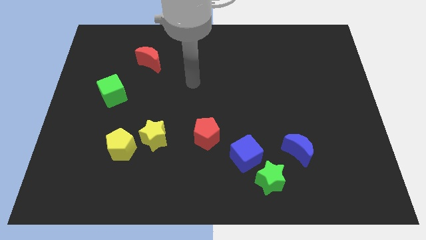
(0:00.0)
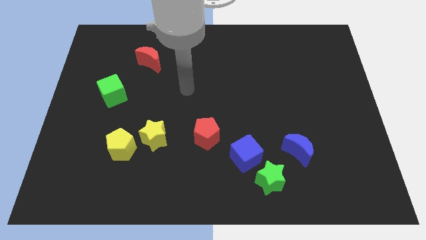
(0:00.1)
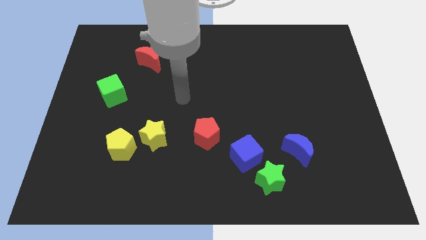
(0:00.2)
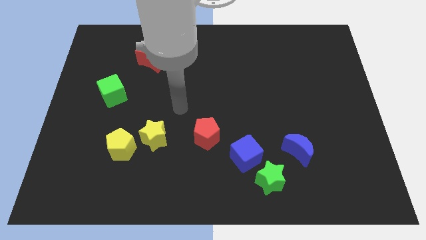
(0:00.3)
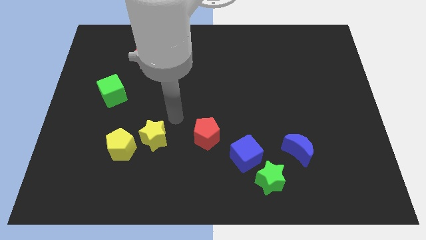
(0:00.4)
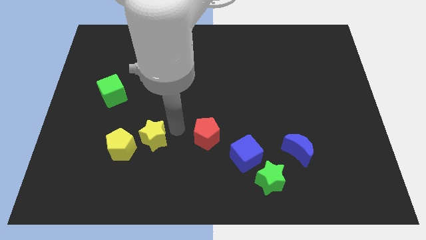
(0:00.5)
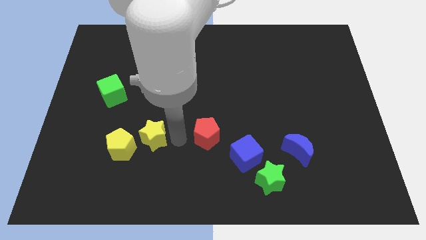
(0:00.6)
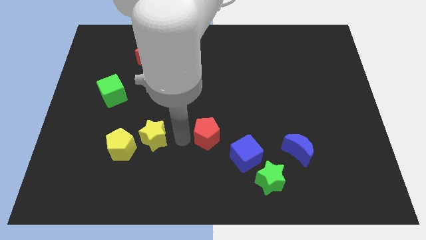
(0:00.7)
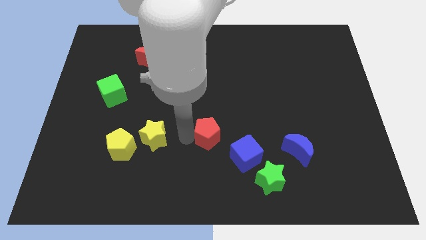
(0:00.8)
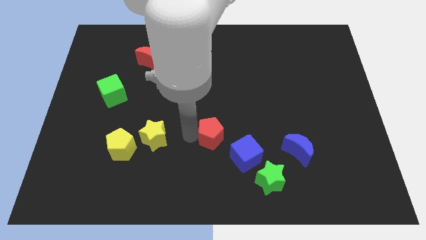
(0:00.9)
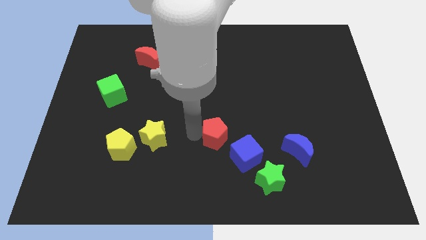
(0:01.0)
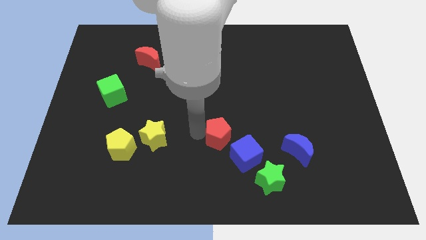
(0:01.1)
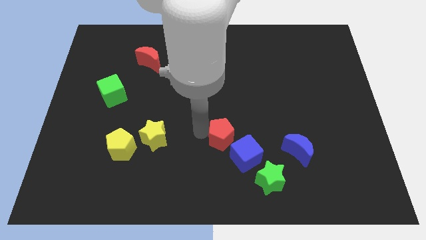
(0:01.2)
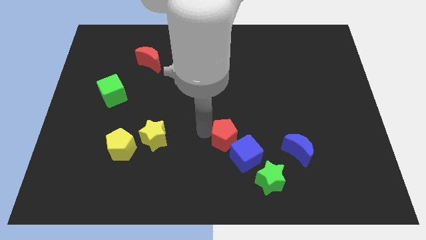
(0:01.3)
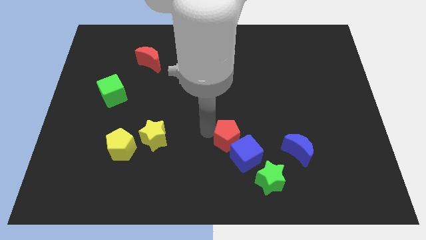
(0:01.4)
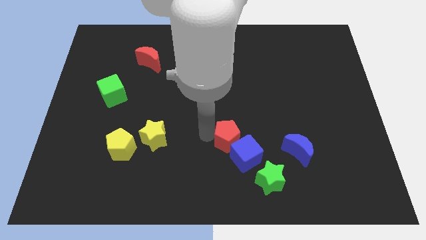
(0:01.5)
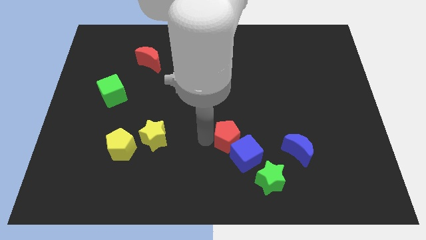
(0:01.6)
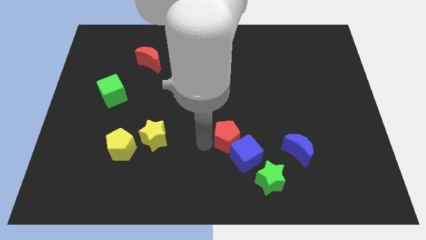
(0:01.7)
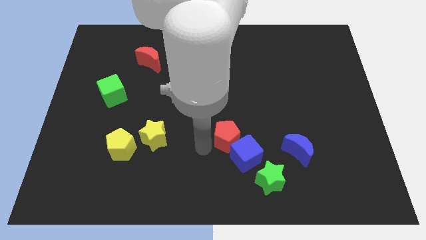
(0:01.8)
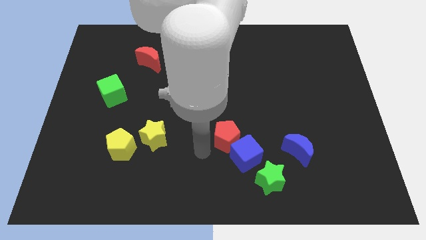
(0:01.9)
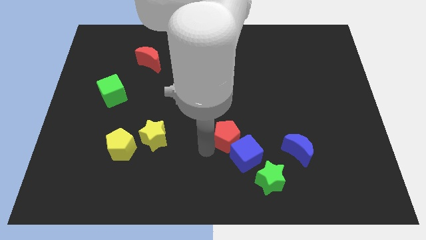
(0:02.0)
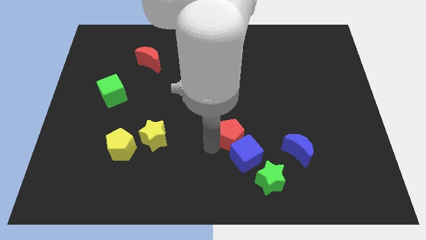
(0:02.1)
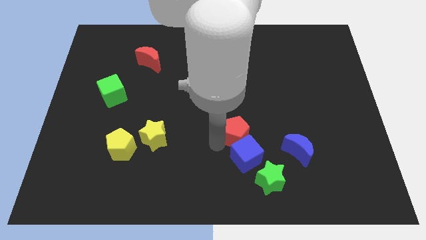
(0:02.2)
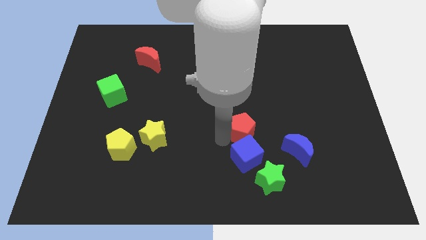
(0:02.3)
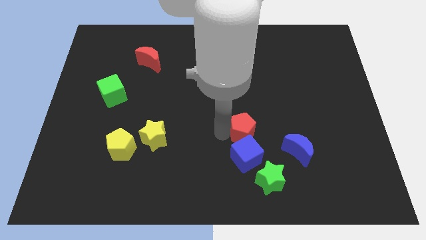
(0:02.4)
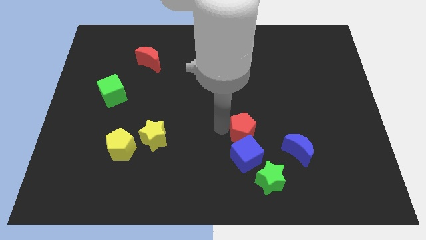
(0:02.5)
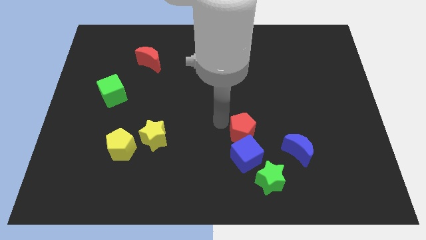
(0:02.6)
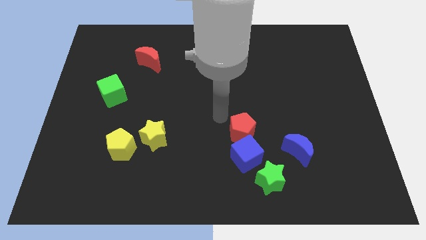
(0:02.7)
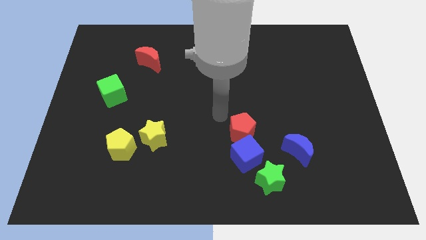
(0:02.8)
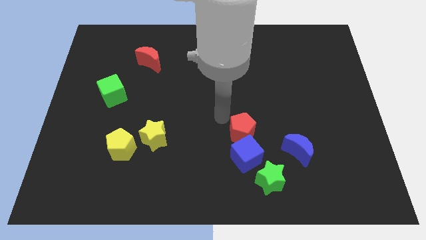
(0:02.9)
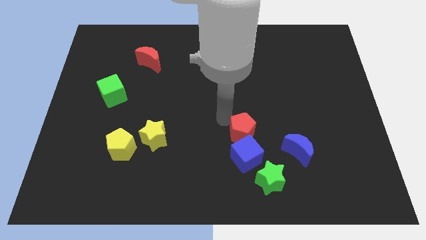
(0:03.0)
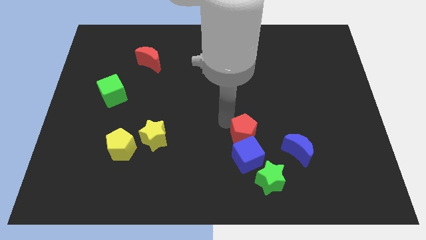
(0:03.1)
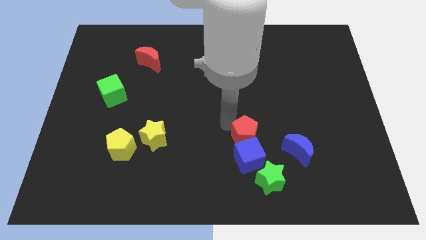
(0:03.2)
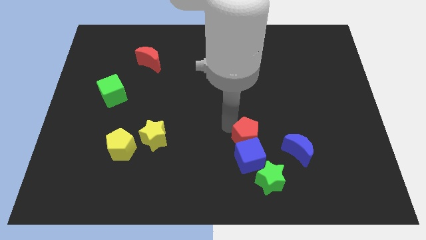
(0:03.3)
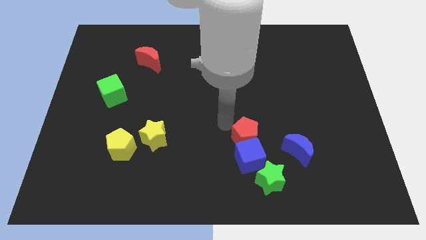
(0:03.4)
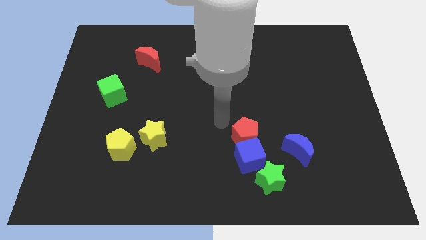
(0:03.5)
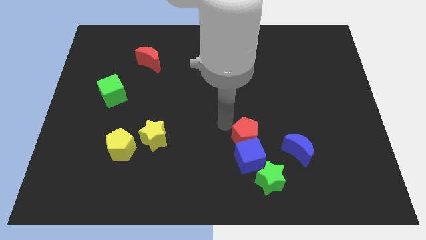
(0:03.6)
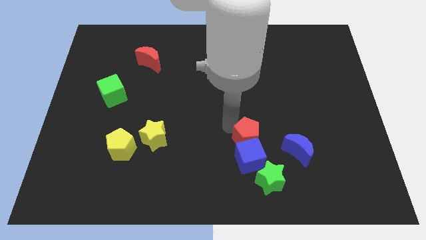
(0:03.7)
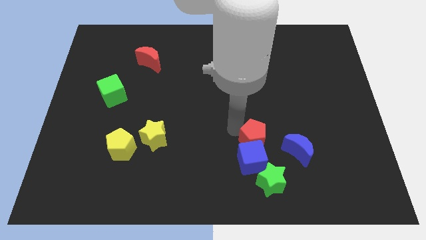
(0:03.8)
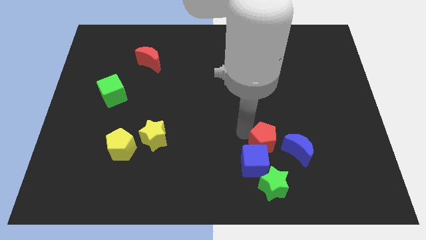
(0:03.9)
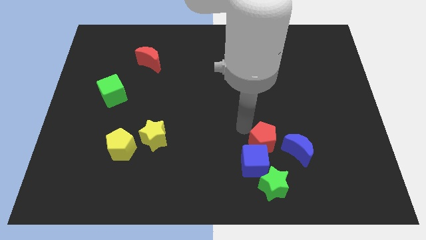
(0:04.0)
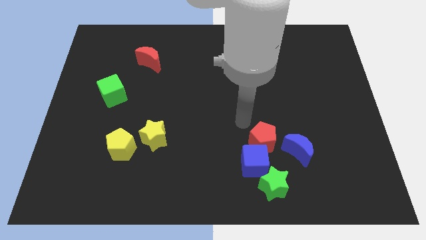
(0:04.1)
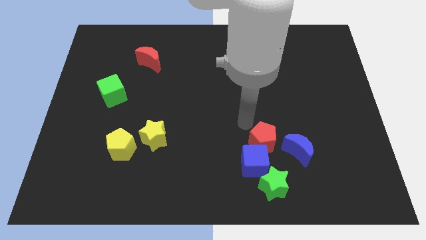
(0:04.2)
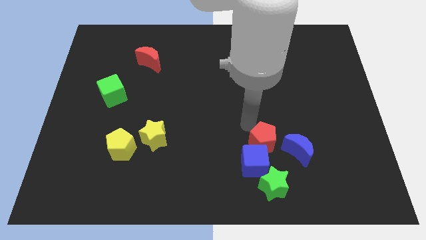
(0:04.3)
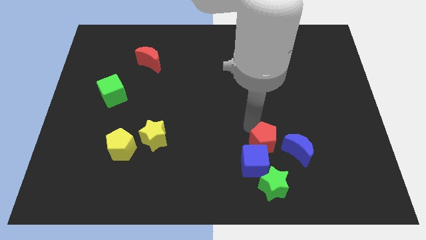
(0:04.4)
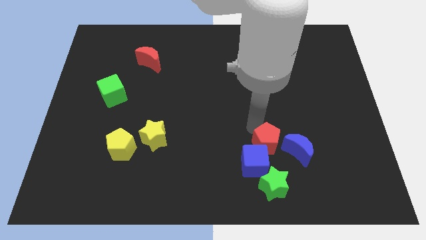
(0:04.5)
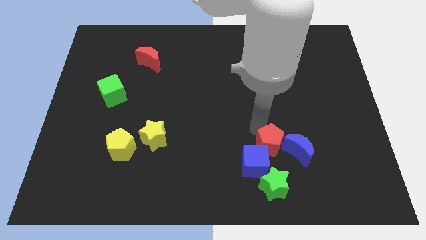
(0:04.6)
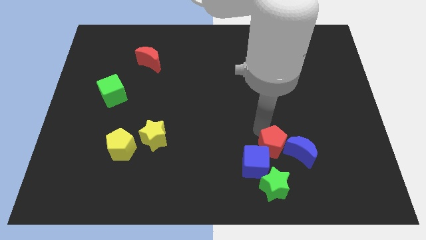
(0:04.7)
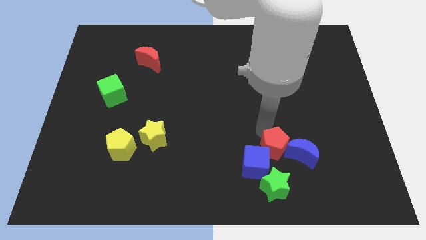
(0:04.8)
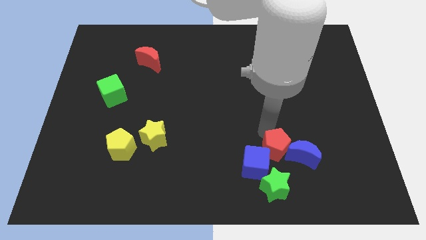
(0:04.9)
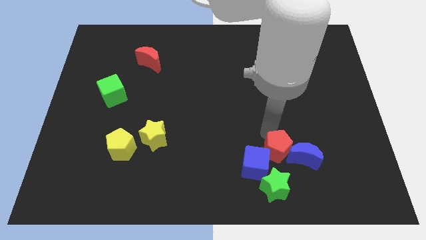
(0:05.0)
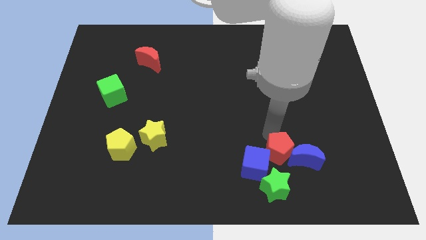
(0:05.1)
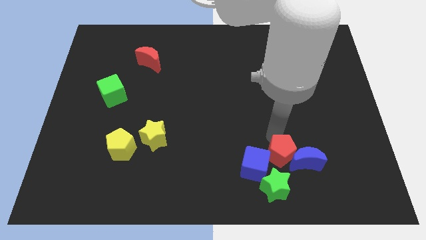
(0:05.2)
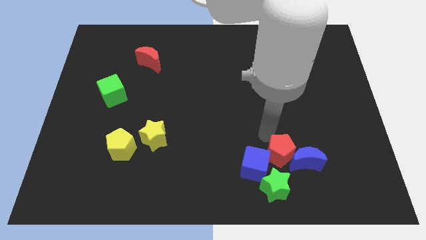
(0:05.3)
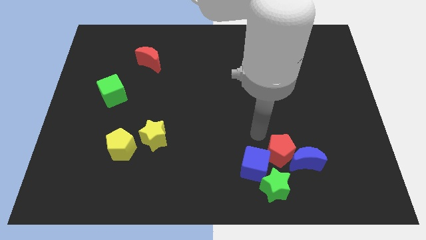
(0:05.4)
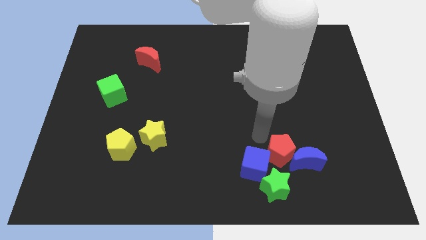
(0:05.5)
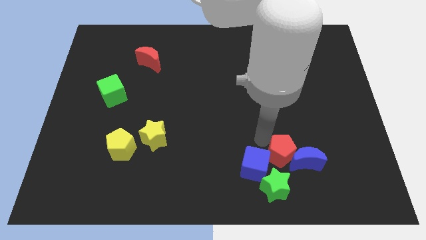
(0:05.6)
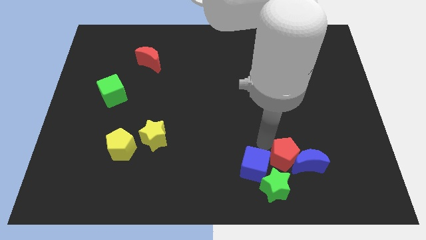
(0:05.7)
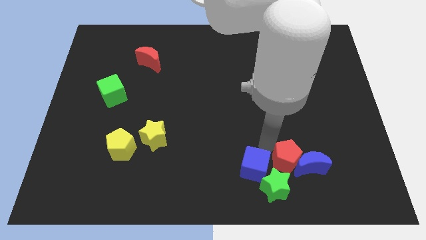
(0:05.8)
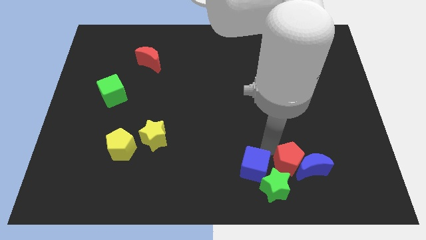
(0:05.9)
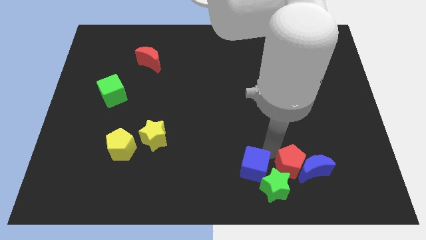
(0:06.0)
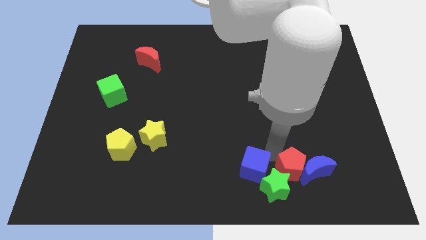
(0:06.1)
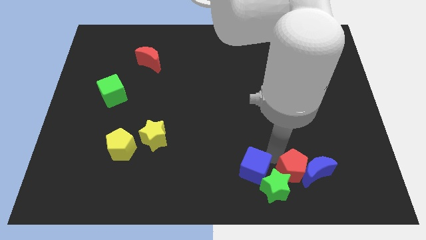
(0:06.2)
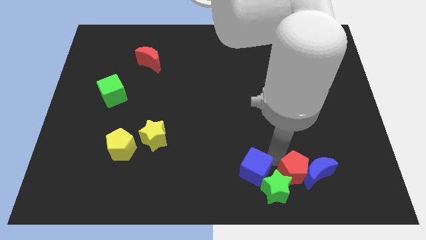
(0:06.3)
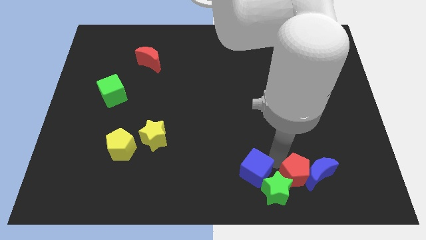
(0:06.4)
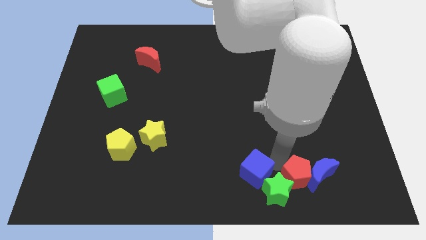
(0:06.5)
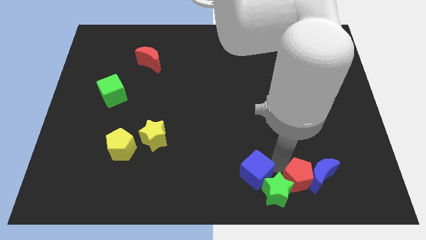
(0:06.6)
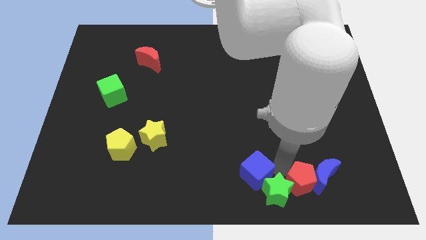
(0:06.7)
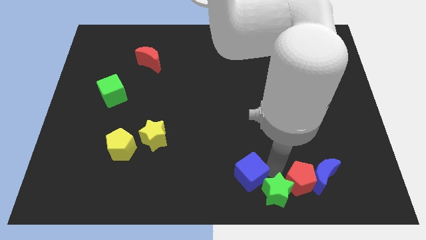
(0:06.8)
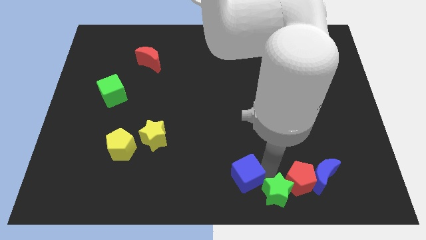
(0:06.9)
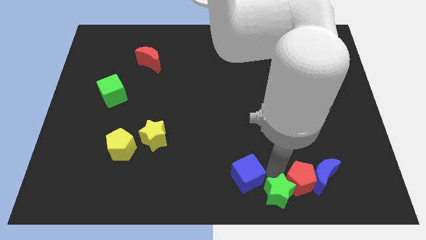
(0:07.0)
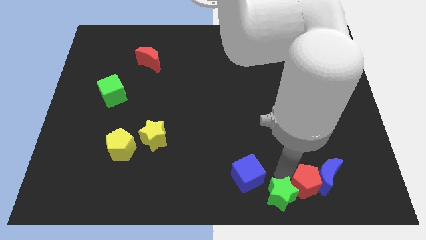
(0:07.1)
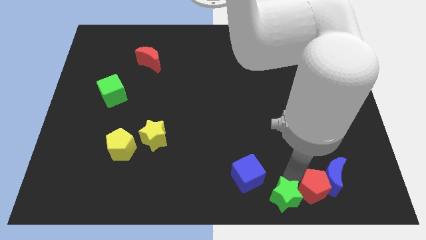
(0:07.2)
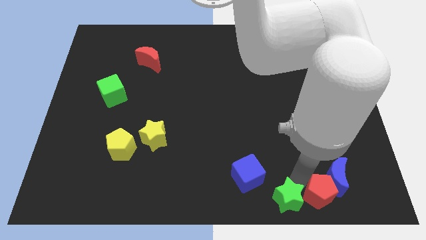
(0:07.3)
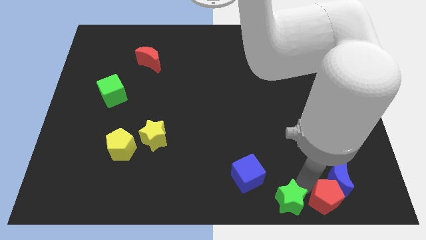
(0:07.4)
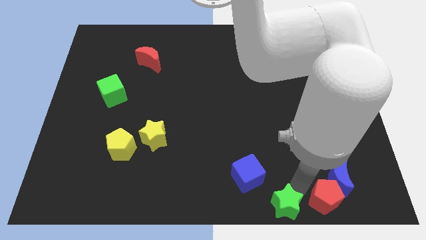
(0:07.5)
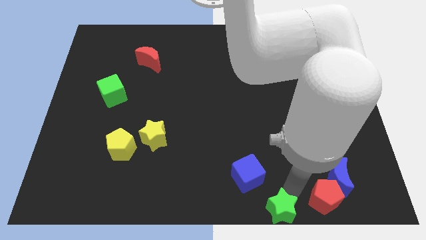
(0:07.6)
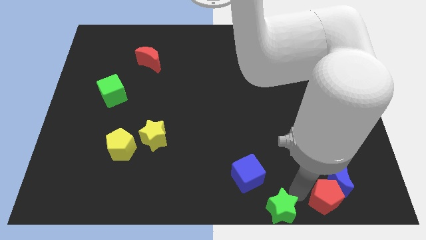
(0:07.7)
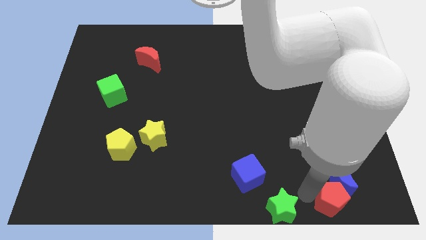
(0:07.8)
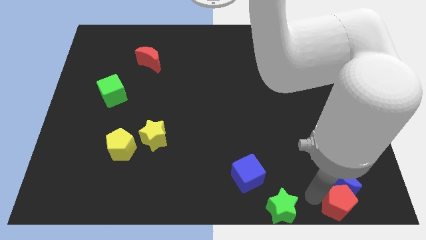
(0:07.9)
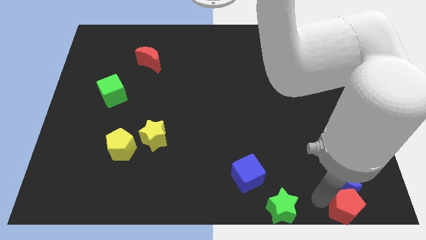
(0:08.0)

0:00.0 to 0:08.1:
slide the red pentagon to the bottom right corner
